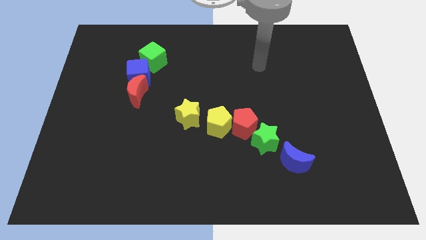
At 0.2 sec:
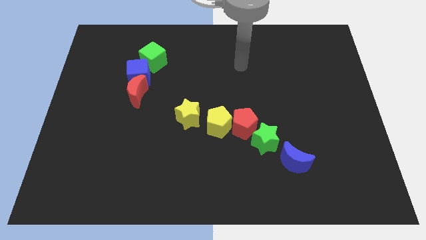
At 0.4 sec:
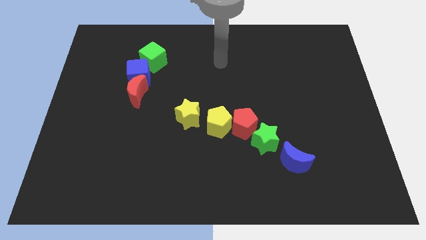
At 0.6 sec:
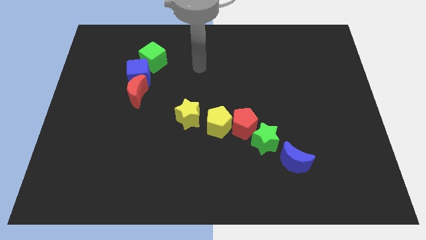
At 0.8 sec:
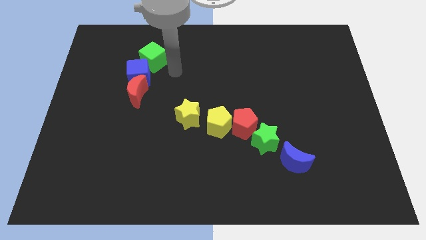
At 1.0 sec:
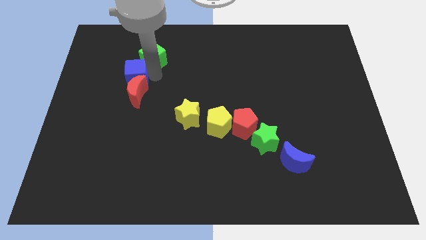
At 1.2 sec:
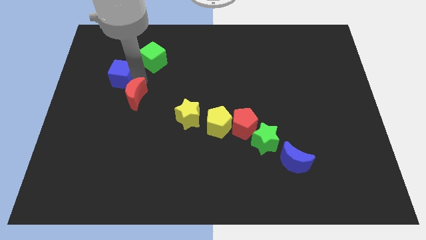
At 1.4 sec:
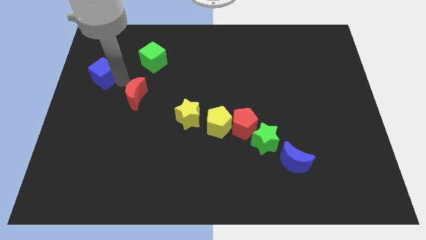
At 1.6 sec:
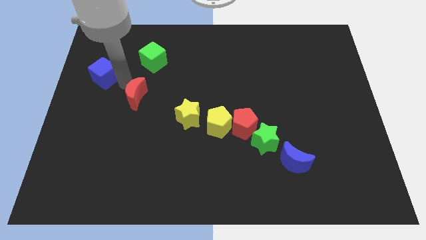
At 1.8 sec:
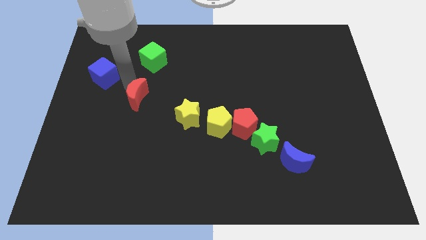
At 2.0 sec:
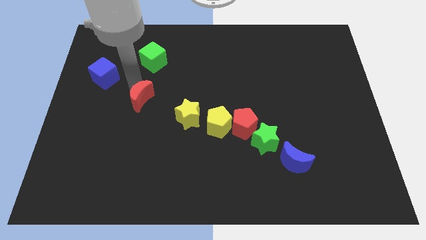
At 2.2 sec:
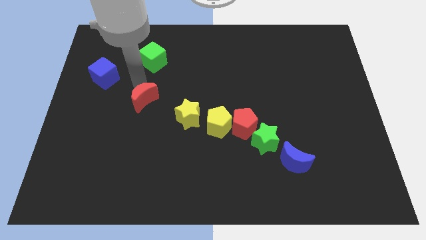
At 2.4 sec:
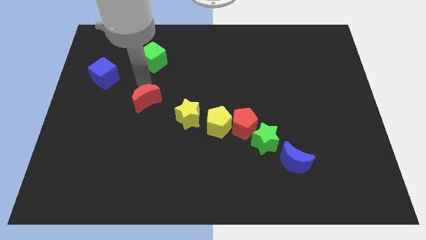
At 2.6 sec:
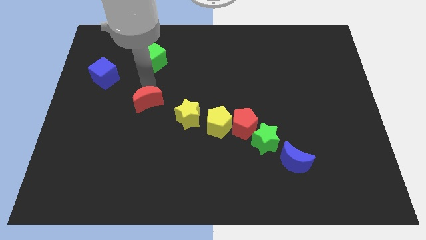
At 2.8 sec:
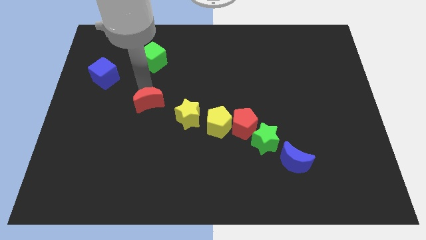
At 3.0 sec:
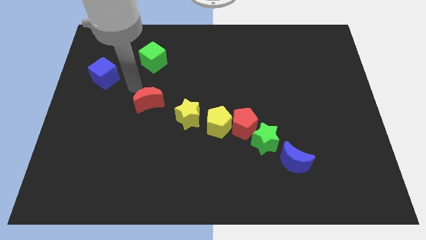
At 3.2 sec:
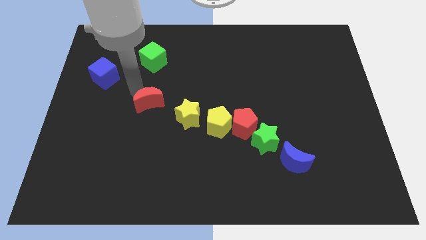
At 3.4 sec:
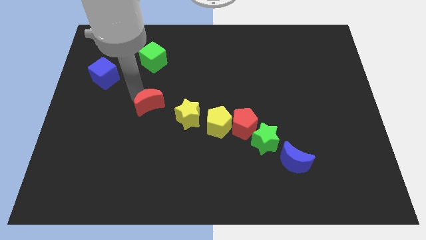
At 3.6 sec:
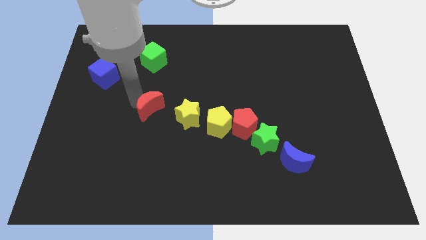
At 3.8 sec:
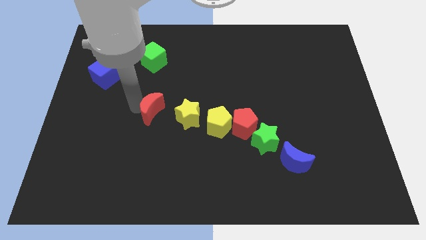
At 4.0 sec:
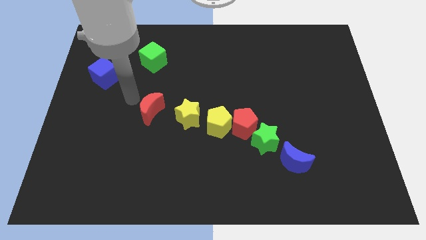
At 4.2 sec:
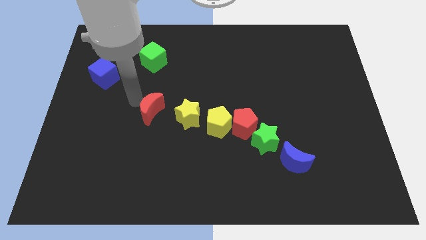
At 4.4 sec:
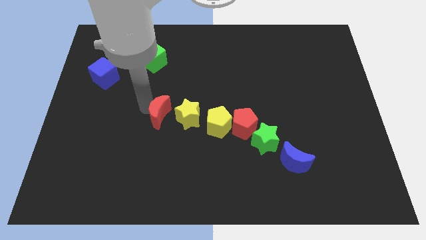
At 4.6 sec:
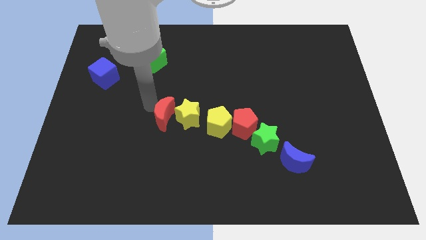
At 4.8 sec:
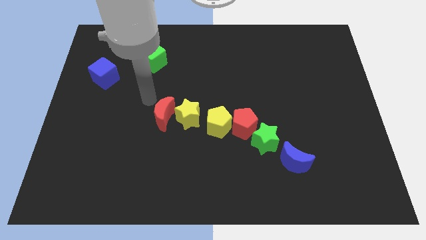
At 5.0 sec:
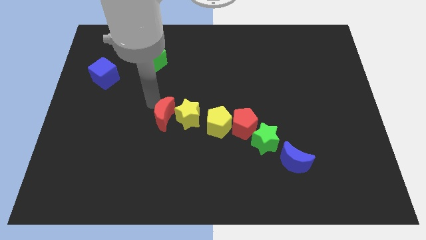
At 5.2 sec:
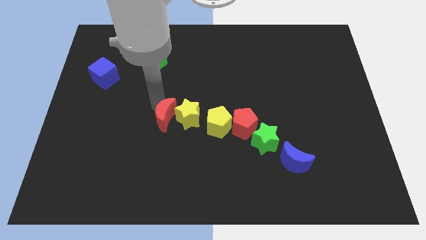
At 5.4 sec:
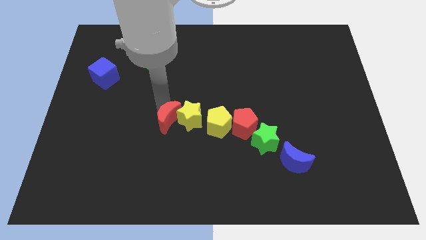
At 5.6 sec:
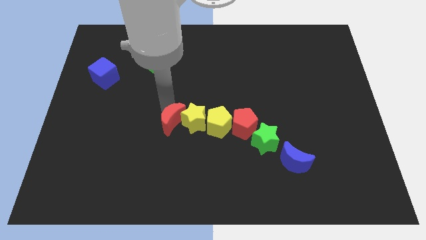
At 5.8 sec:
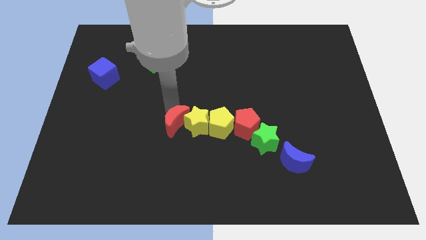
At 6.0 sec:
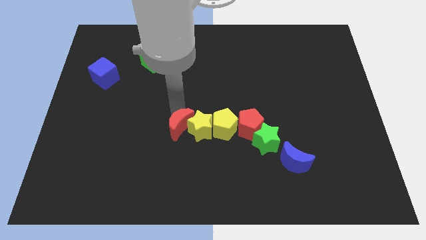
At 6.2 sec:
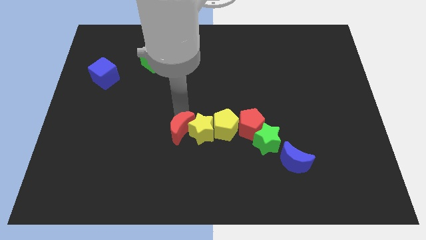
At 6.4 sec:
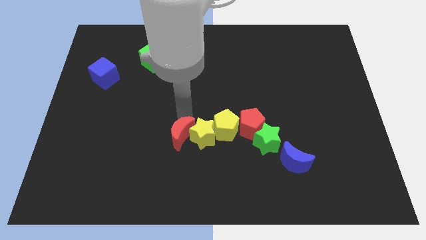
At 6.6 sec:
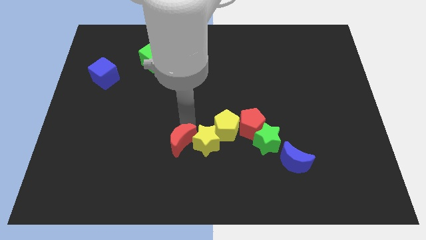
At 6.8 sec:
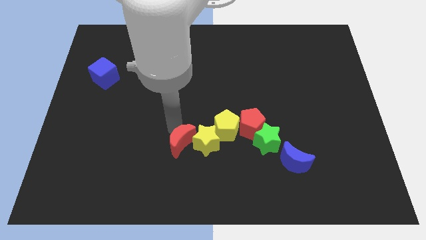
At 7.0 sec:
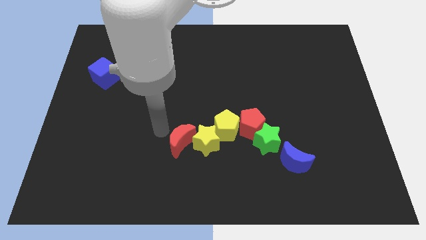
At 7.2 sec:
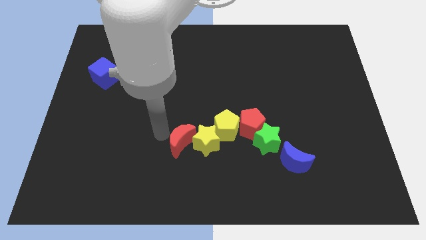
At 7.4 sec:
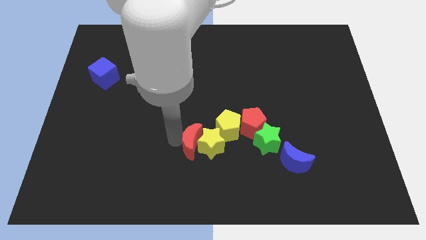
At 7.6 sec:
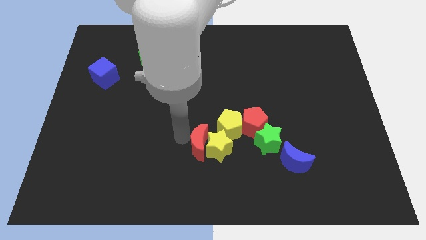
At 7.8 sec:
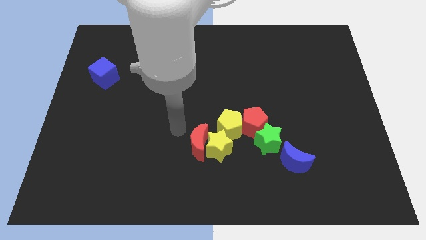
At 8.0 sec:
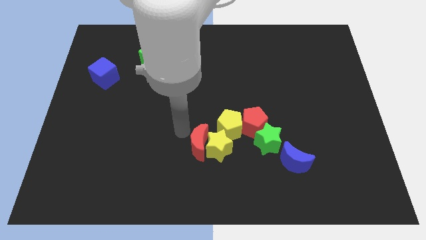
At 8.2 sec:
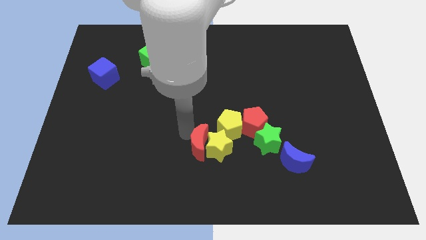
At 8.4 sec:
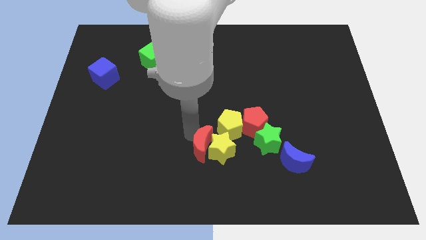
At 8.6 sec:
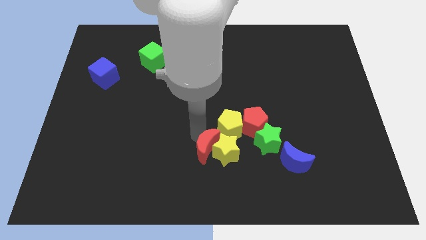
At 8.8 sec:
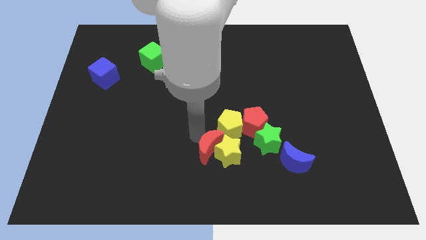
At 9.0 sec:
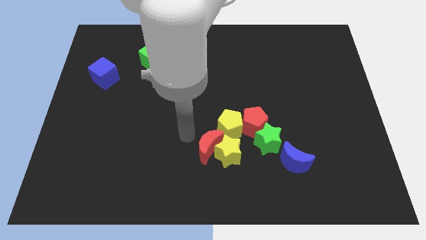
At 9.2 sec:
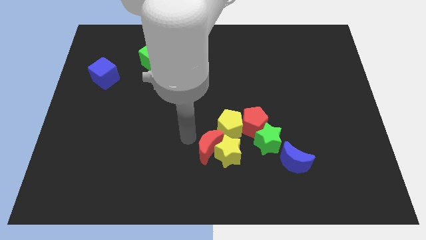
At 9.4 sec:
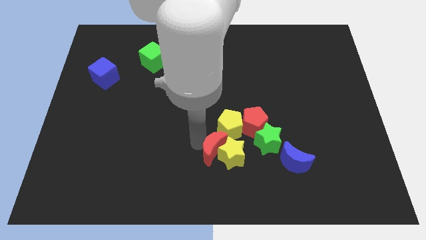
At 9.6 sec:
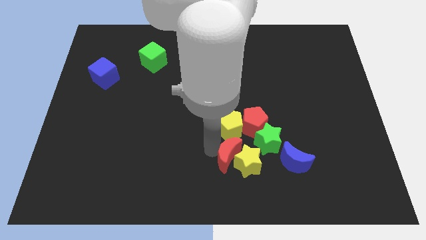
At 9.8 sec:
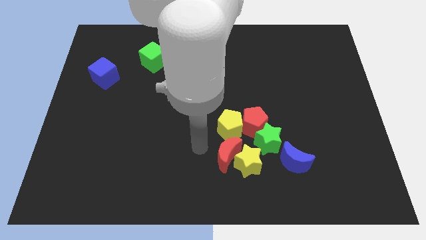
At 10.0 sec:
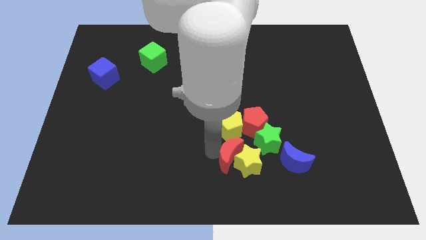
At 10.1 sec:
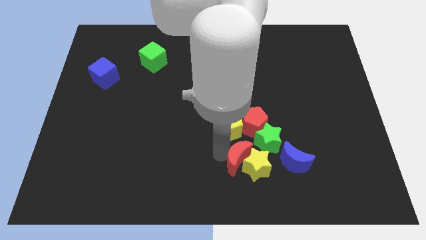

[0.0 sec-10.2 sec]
slide the red moon to the bottom side of the red pentagon

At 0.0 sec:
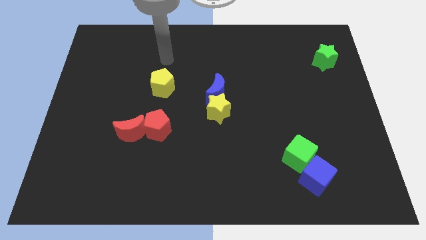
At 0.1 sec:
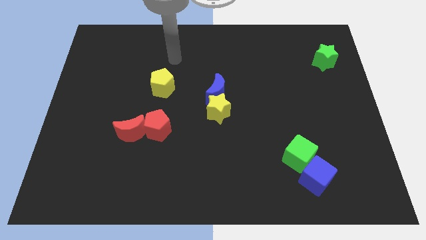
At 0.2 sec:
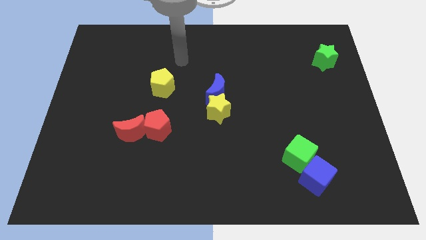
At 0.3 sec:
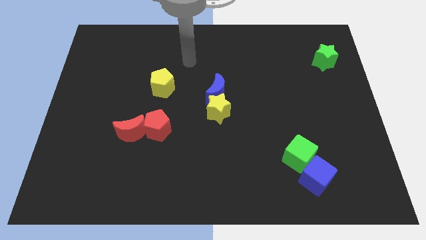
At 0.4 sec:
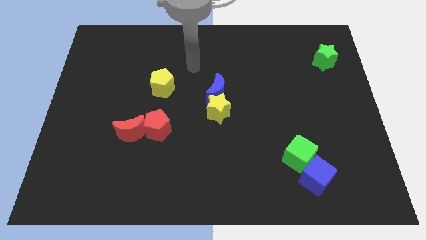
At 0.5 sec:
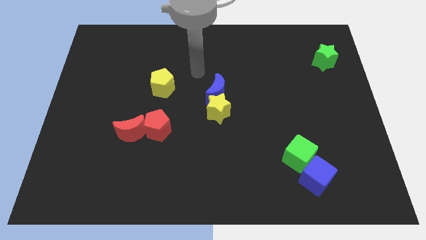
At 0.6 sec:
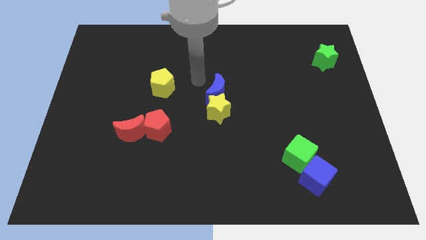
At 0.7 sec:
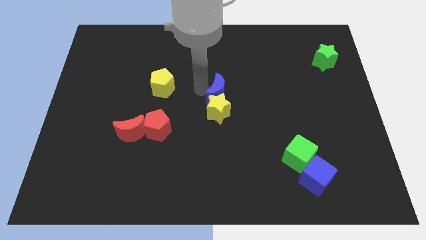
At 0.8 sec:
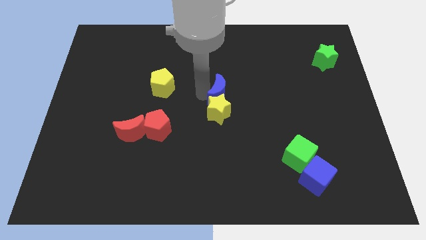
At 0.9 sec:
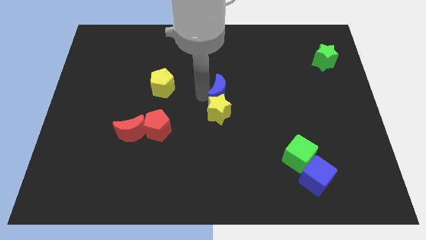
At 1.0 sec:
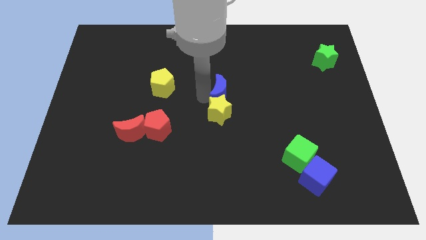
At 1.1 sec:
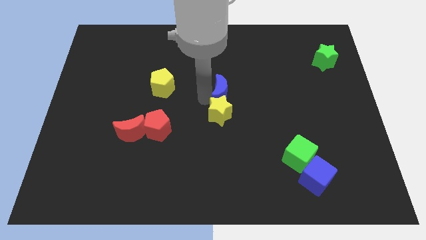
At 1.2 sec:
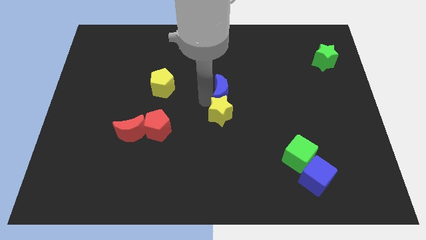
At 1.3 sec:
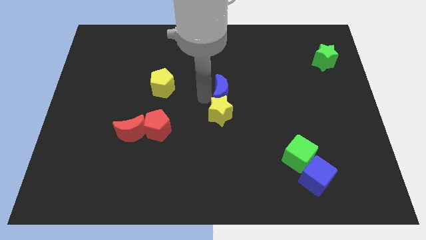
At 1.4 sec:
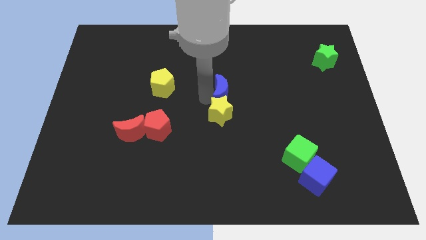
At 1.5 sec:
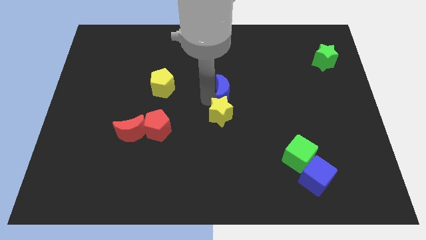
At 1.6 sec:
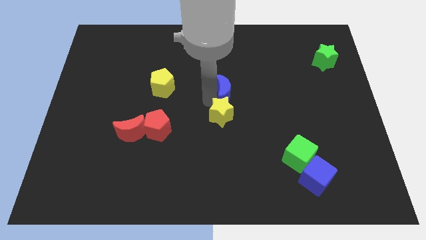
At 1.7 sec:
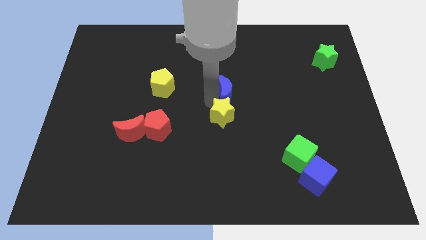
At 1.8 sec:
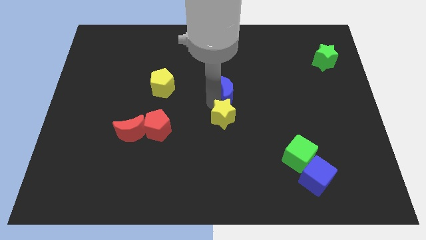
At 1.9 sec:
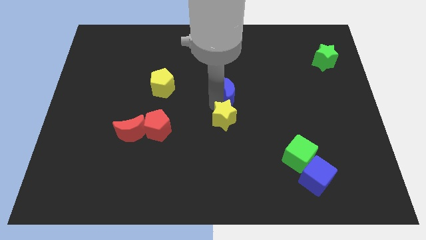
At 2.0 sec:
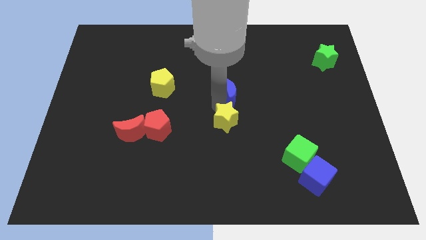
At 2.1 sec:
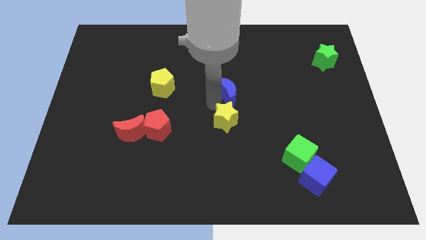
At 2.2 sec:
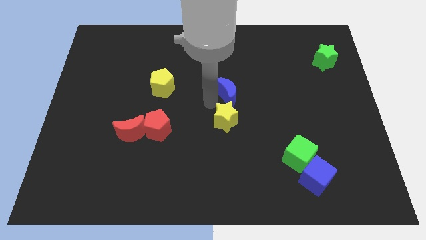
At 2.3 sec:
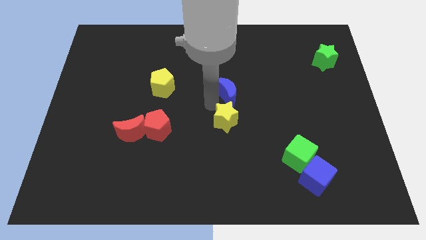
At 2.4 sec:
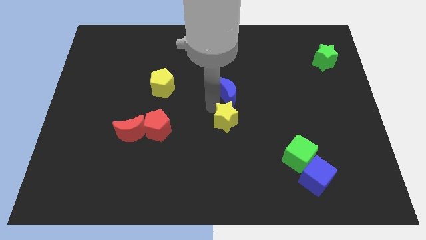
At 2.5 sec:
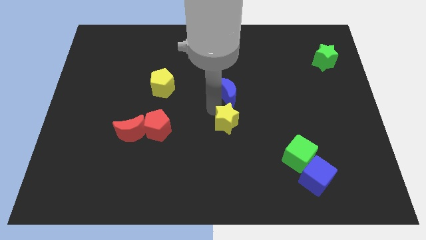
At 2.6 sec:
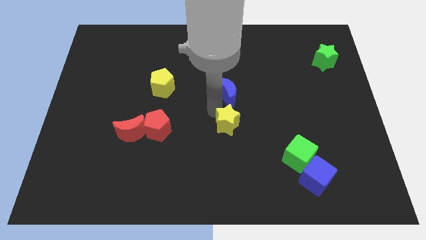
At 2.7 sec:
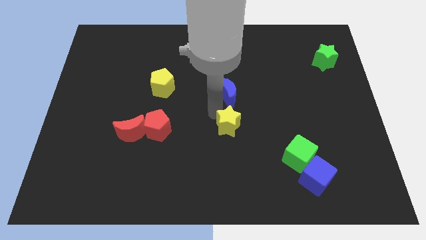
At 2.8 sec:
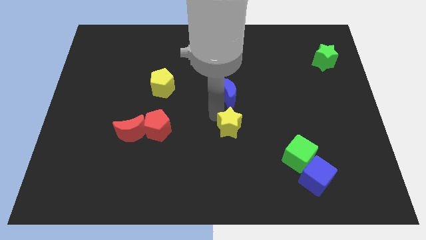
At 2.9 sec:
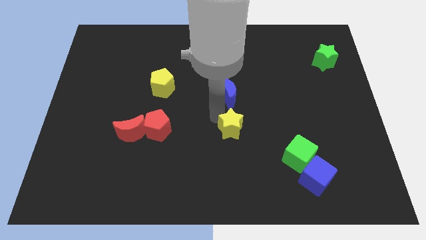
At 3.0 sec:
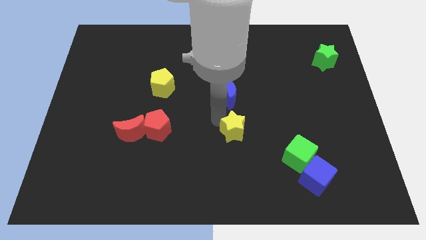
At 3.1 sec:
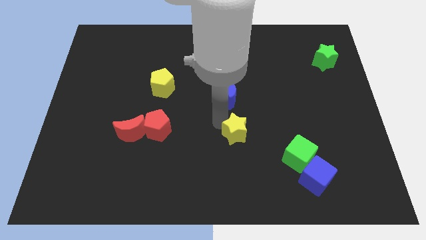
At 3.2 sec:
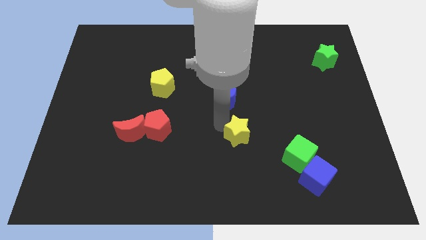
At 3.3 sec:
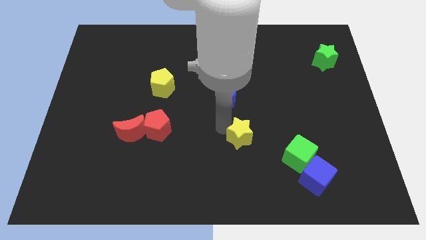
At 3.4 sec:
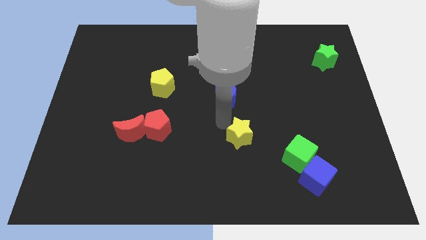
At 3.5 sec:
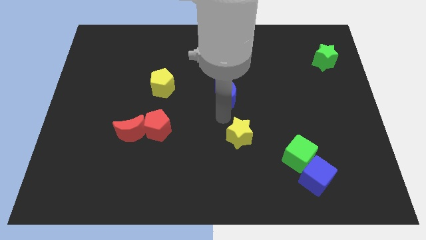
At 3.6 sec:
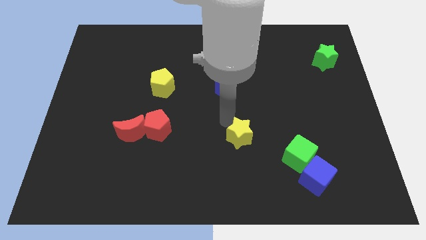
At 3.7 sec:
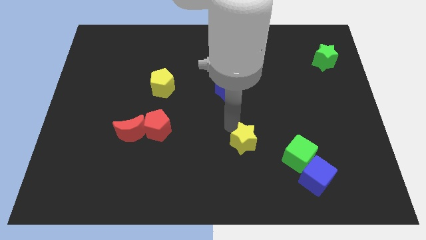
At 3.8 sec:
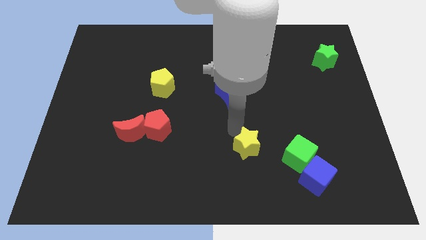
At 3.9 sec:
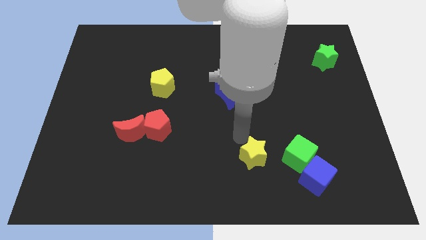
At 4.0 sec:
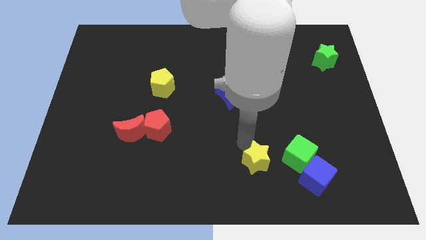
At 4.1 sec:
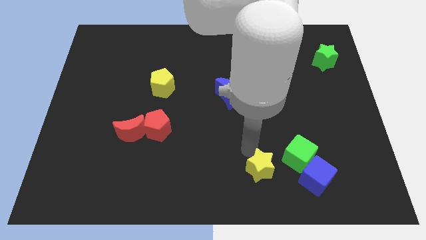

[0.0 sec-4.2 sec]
push the yellow star to the bottom left side of the green cube
